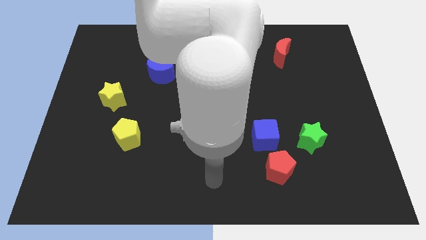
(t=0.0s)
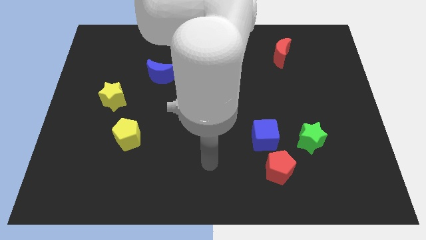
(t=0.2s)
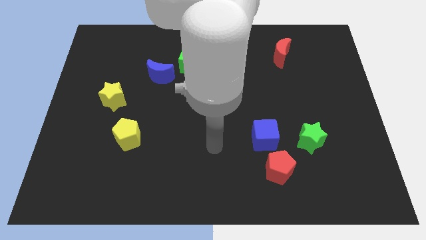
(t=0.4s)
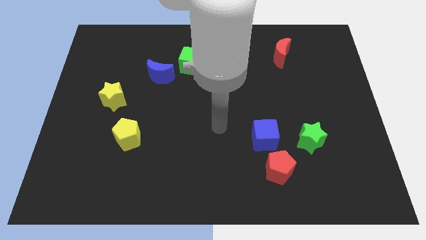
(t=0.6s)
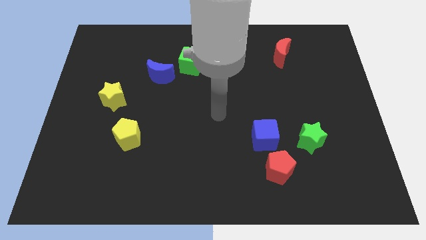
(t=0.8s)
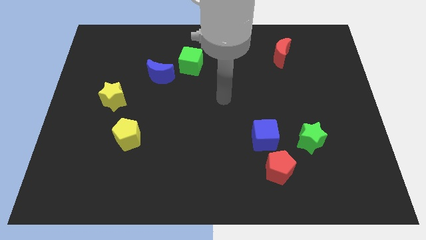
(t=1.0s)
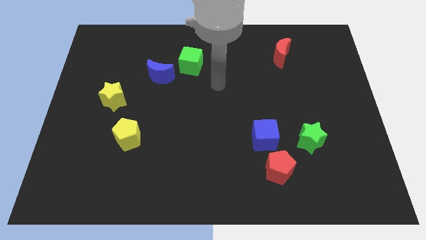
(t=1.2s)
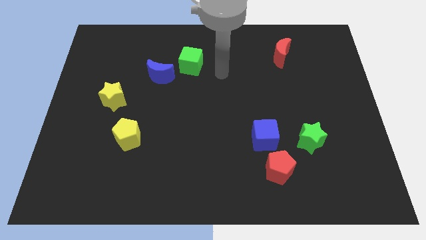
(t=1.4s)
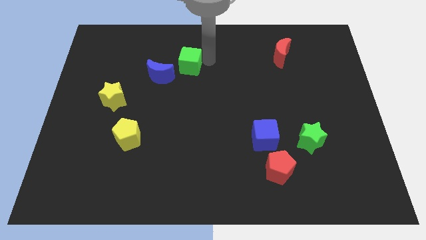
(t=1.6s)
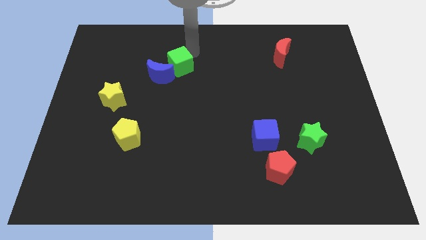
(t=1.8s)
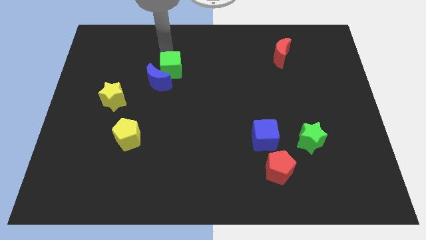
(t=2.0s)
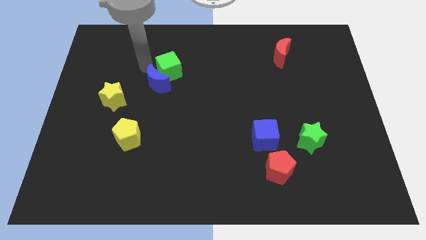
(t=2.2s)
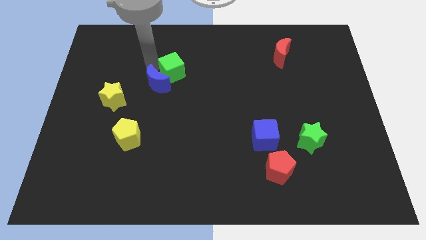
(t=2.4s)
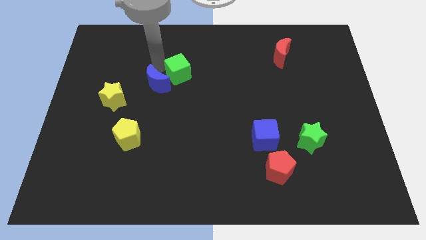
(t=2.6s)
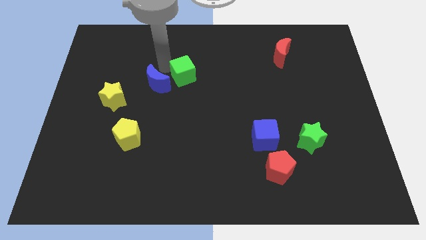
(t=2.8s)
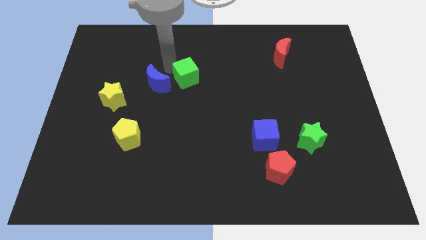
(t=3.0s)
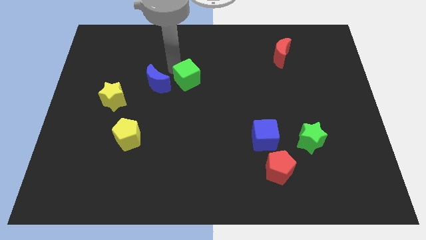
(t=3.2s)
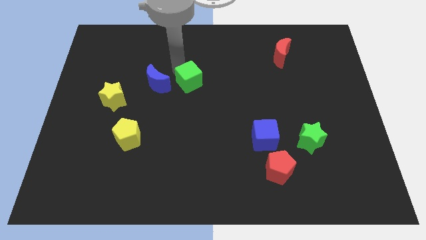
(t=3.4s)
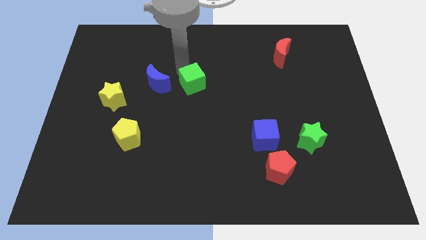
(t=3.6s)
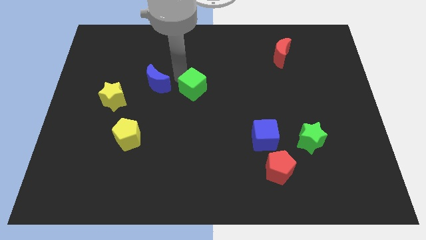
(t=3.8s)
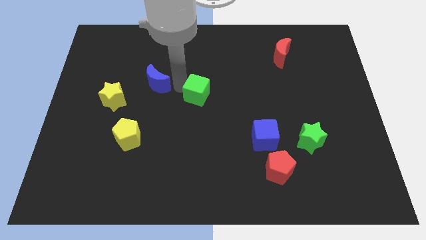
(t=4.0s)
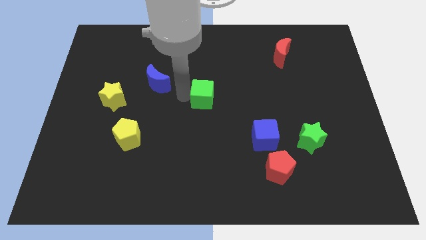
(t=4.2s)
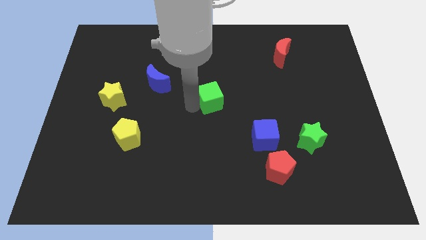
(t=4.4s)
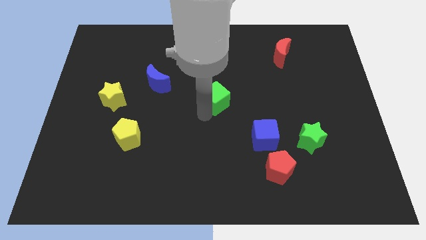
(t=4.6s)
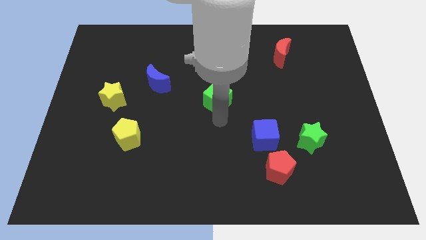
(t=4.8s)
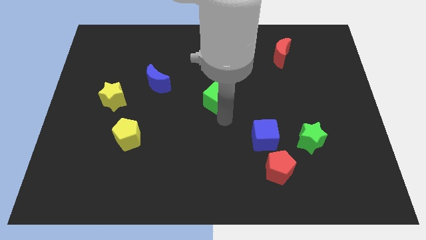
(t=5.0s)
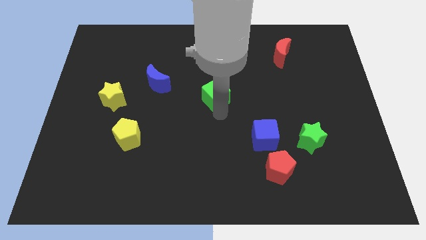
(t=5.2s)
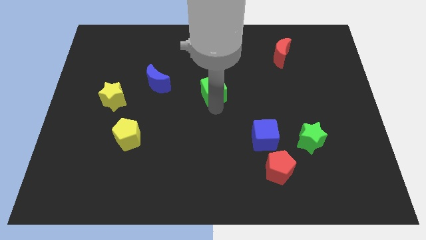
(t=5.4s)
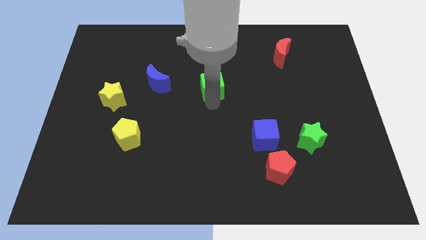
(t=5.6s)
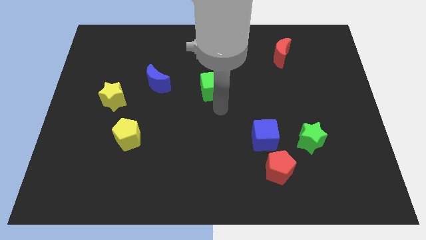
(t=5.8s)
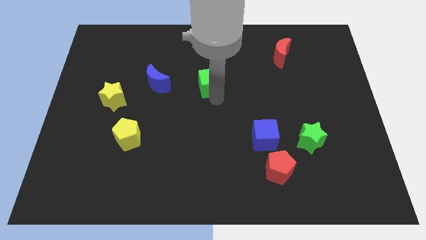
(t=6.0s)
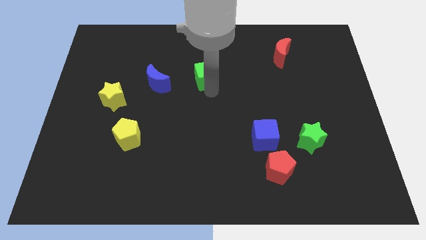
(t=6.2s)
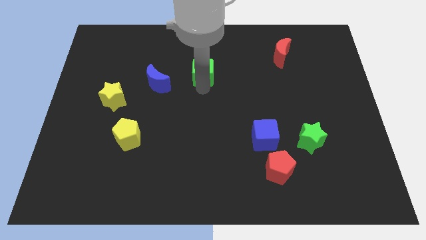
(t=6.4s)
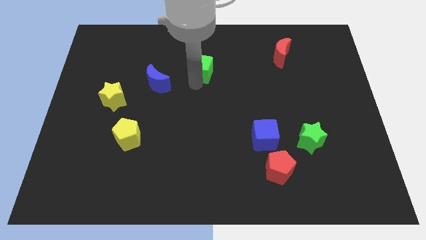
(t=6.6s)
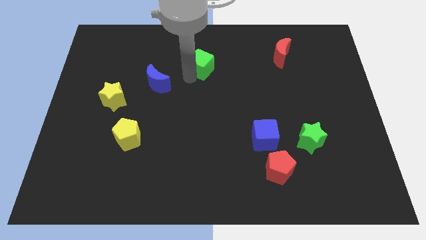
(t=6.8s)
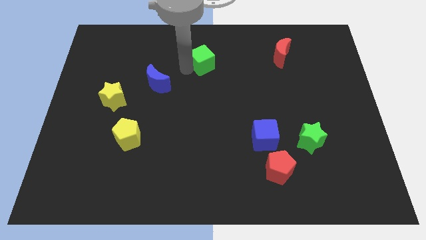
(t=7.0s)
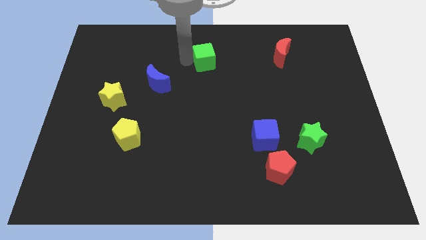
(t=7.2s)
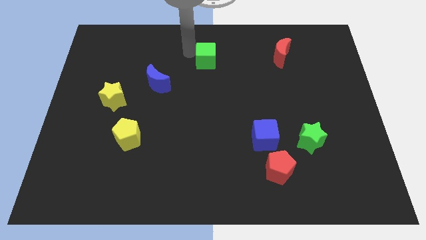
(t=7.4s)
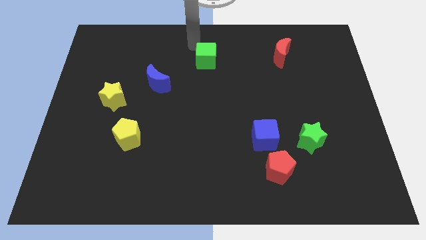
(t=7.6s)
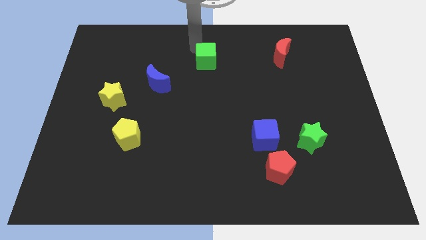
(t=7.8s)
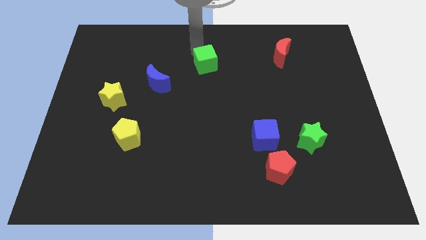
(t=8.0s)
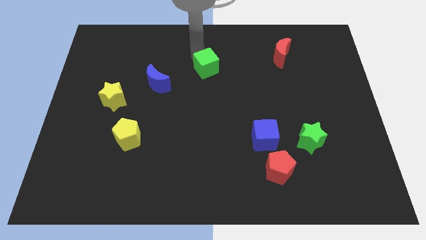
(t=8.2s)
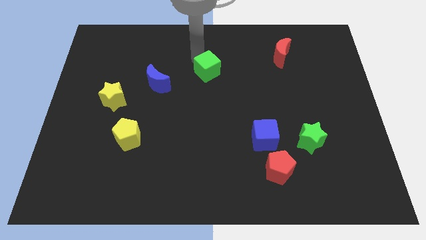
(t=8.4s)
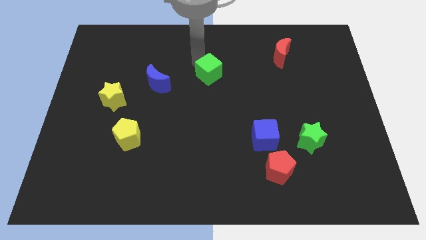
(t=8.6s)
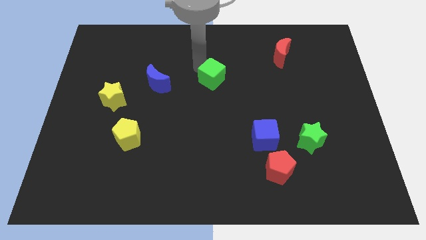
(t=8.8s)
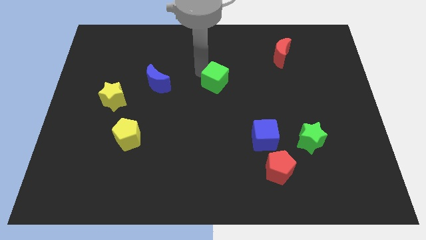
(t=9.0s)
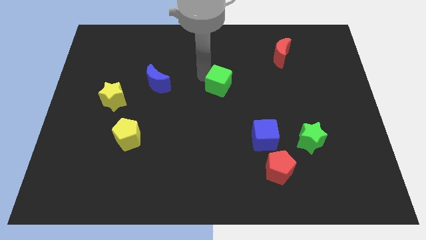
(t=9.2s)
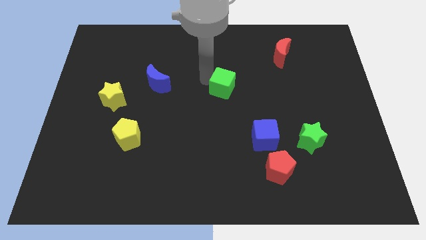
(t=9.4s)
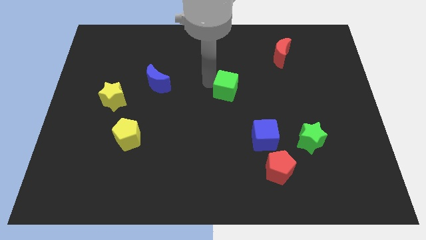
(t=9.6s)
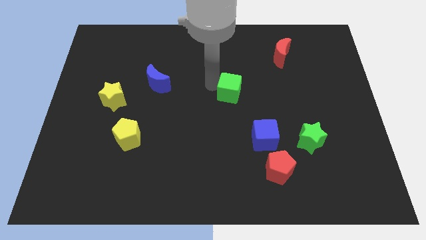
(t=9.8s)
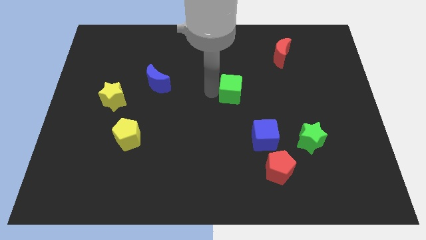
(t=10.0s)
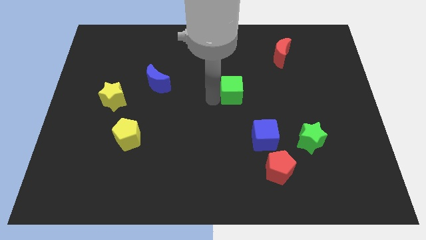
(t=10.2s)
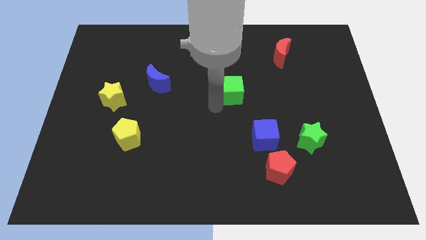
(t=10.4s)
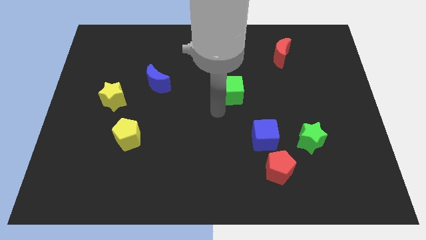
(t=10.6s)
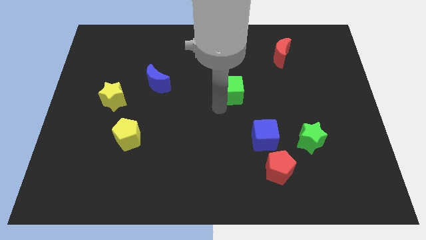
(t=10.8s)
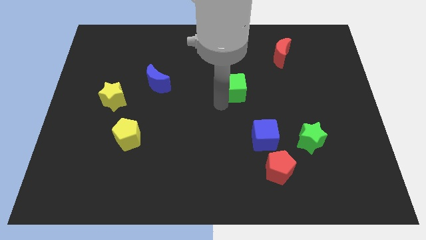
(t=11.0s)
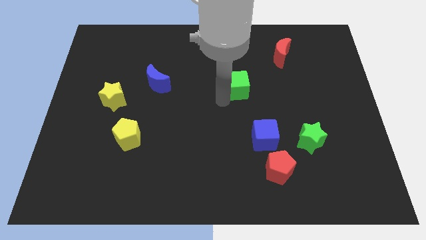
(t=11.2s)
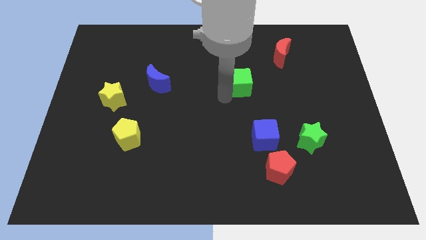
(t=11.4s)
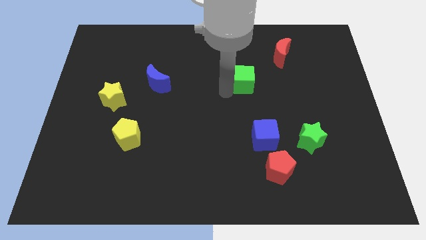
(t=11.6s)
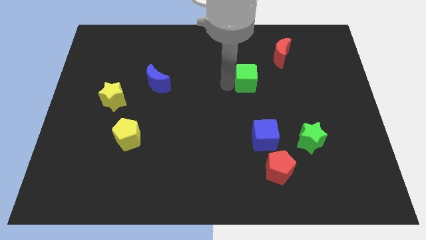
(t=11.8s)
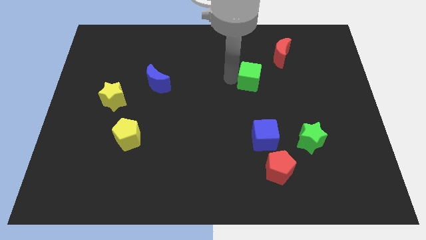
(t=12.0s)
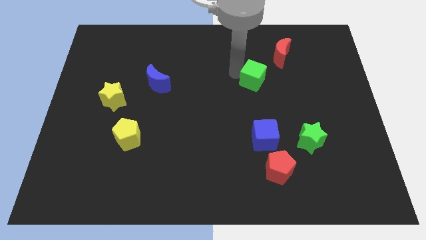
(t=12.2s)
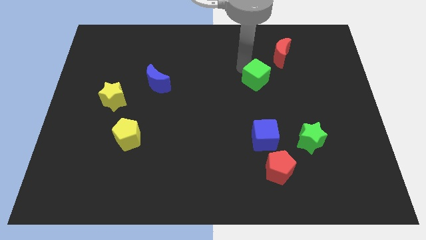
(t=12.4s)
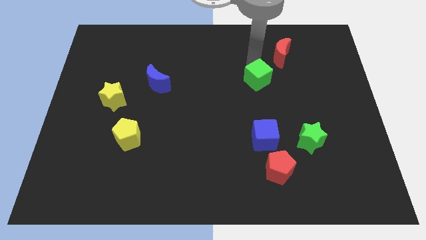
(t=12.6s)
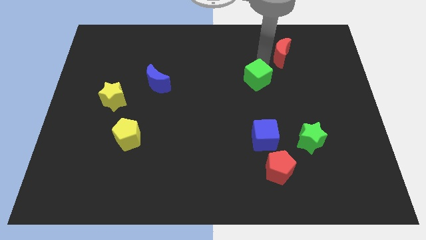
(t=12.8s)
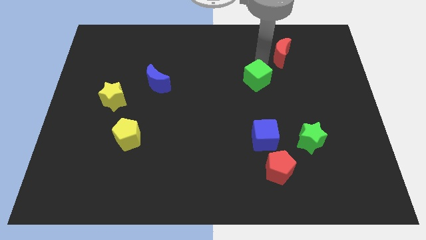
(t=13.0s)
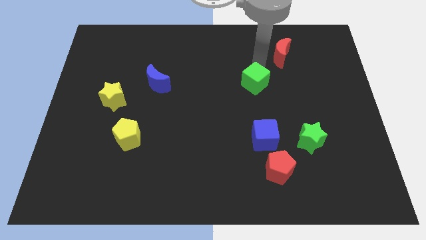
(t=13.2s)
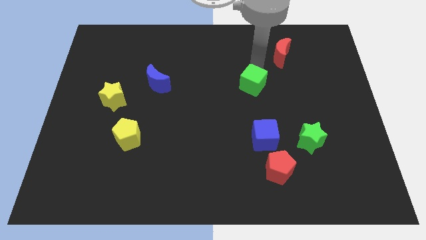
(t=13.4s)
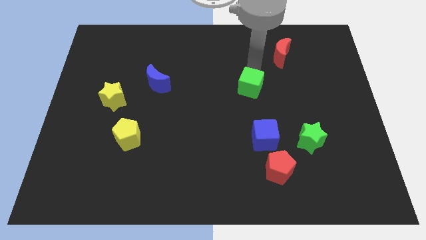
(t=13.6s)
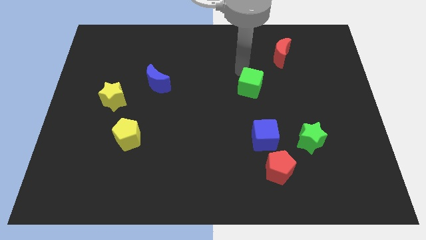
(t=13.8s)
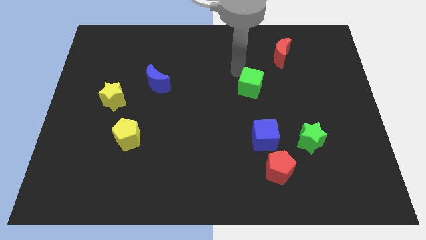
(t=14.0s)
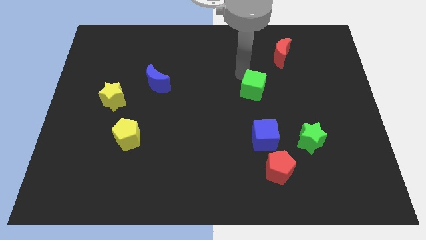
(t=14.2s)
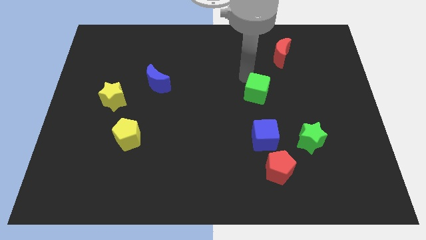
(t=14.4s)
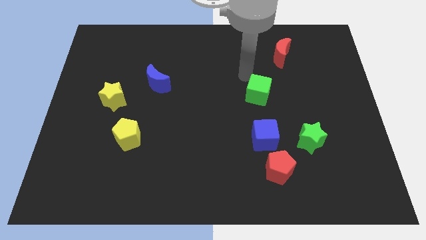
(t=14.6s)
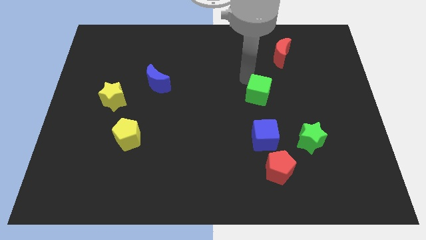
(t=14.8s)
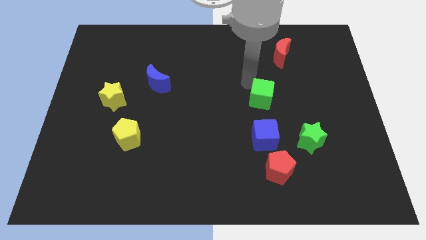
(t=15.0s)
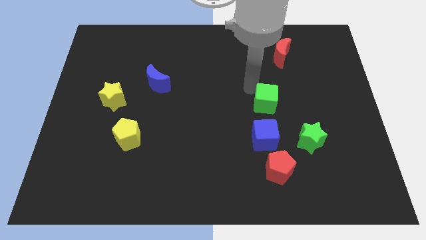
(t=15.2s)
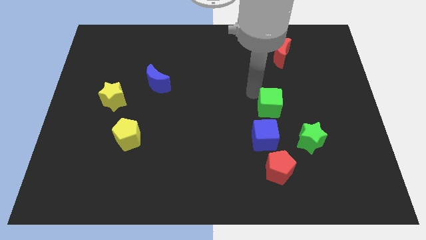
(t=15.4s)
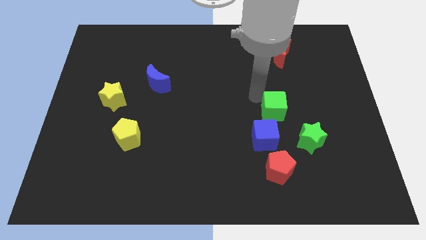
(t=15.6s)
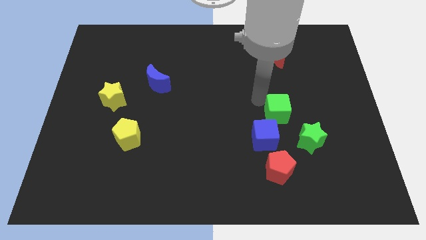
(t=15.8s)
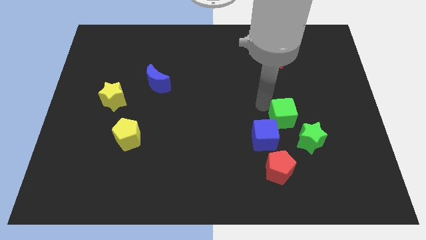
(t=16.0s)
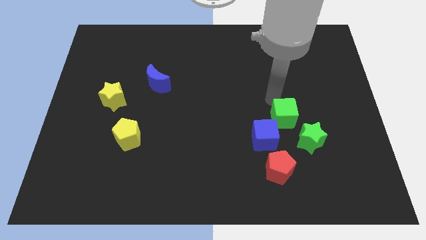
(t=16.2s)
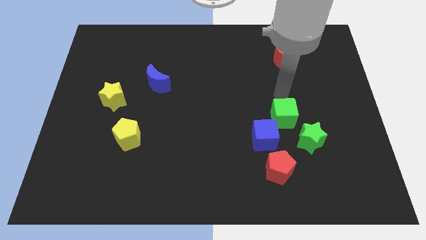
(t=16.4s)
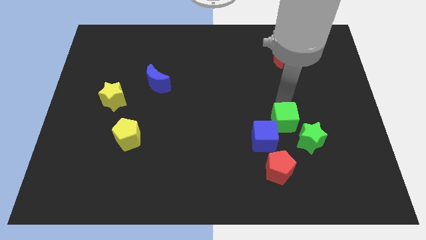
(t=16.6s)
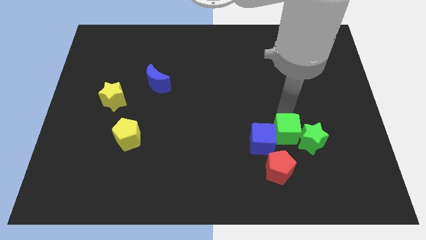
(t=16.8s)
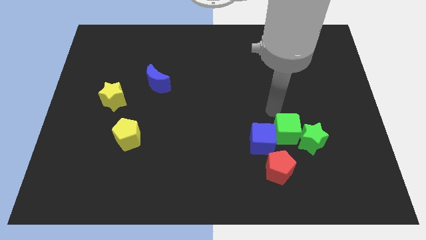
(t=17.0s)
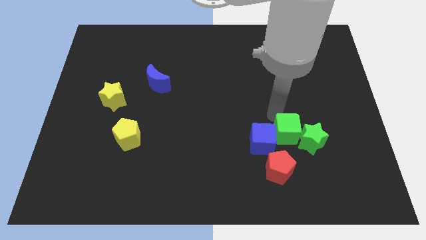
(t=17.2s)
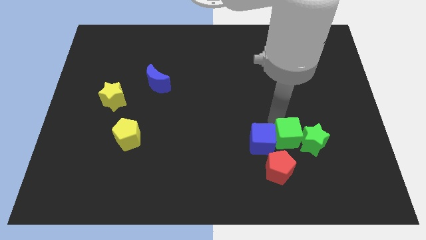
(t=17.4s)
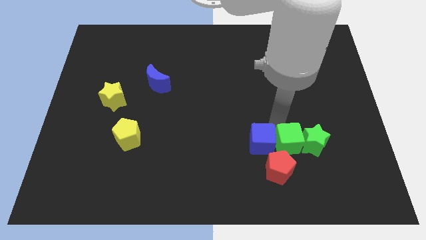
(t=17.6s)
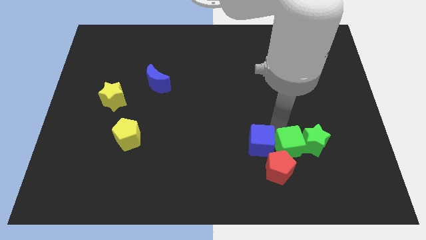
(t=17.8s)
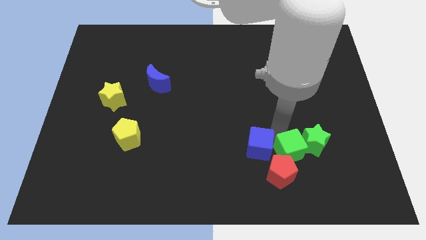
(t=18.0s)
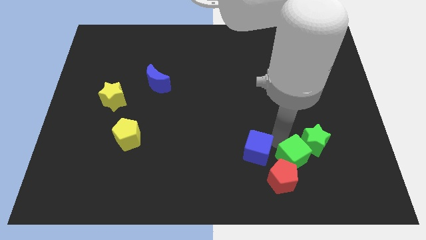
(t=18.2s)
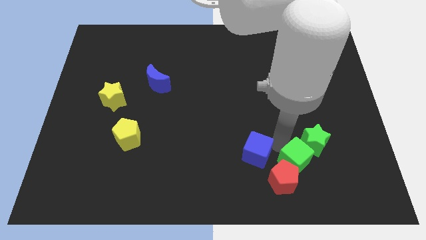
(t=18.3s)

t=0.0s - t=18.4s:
push the green cube to the bottom side of the green star
